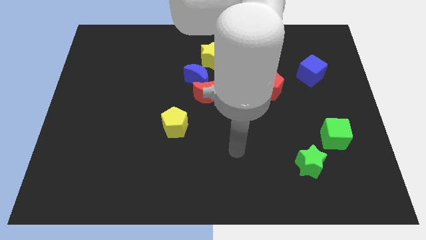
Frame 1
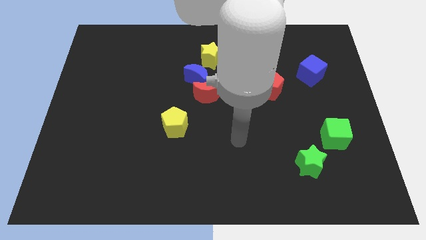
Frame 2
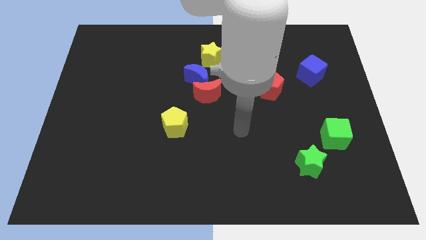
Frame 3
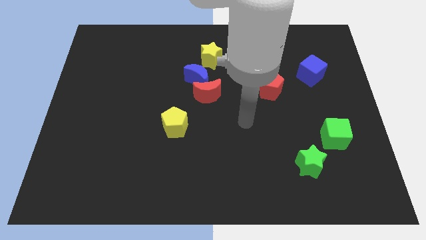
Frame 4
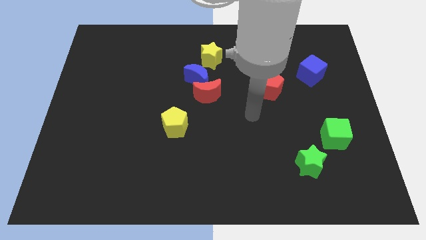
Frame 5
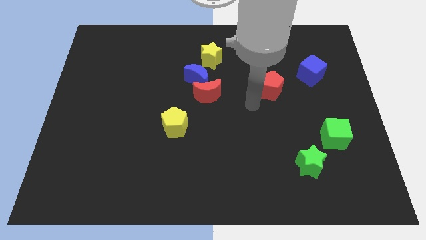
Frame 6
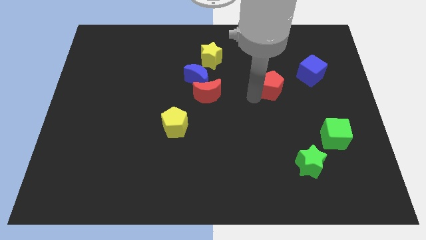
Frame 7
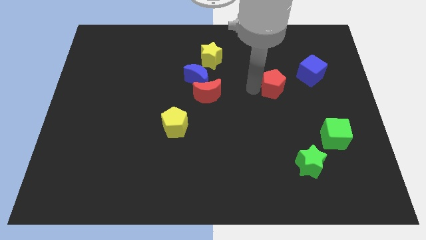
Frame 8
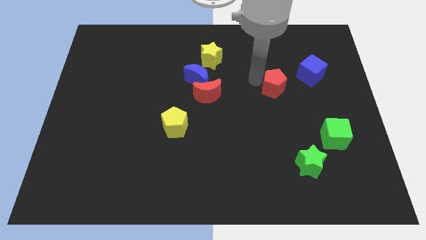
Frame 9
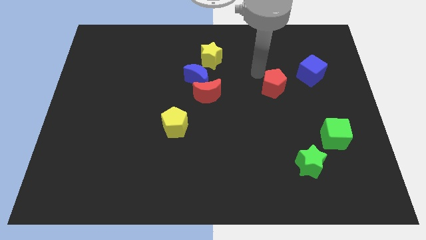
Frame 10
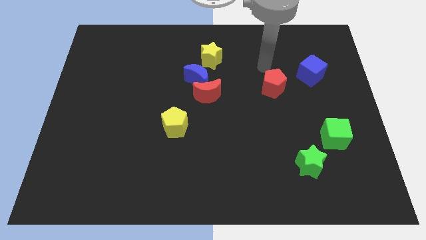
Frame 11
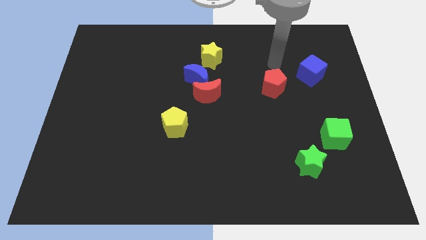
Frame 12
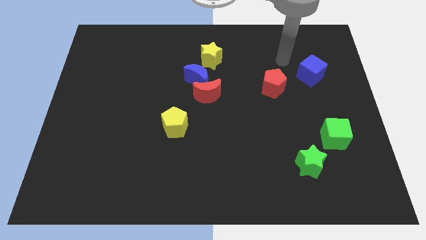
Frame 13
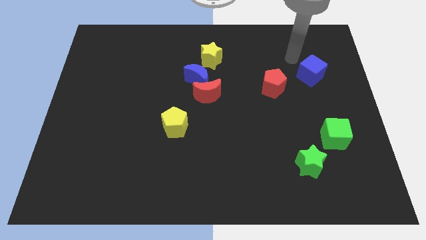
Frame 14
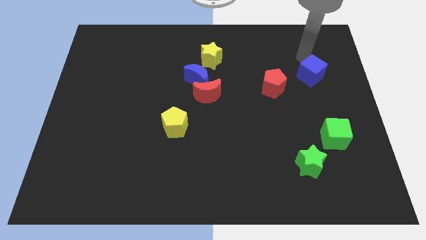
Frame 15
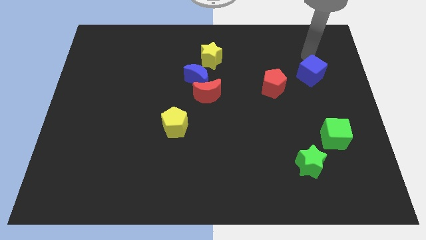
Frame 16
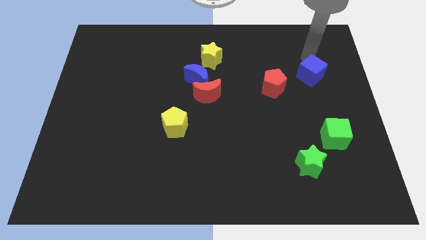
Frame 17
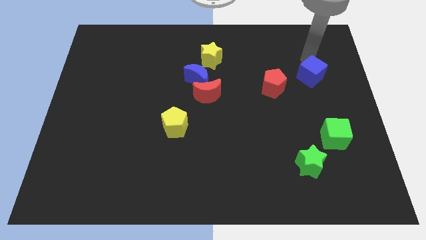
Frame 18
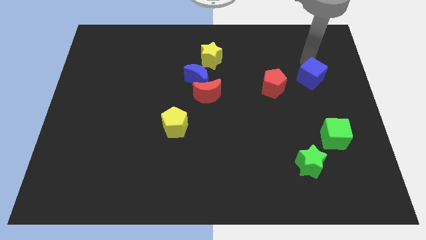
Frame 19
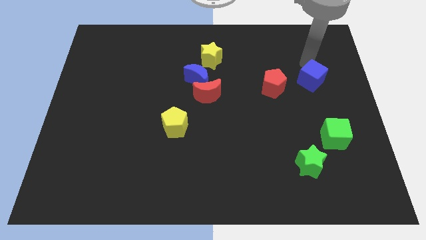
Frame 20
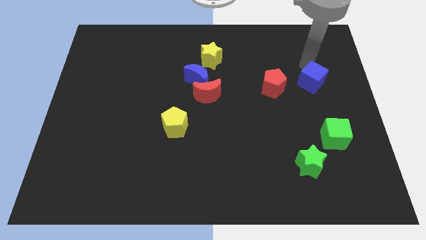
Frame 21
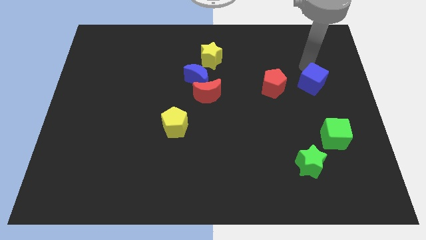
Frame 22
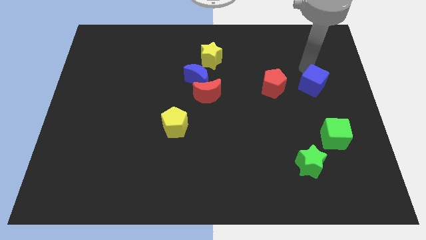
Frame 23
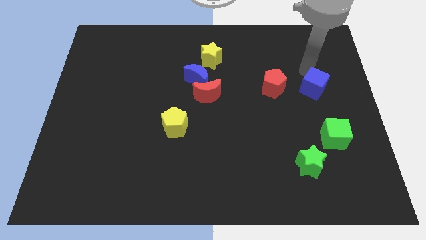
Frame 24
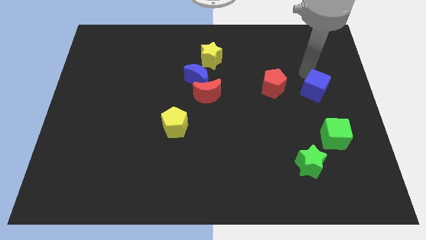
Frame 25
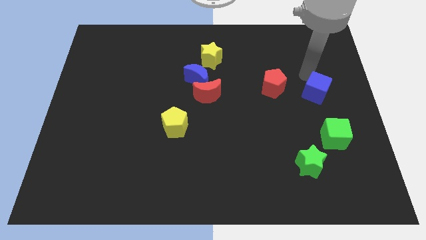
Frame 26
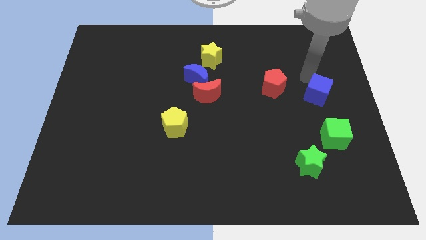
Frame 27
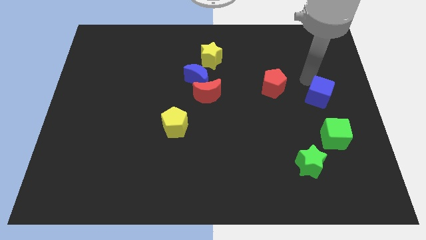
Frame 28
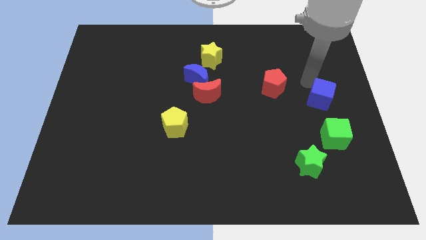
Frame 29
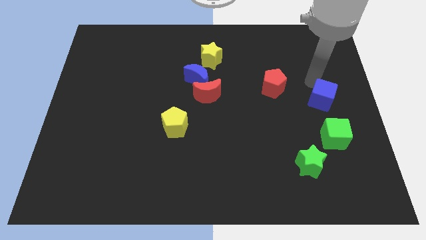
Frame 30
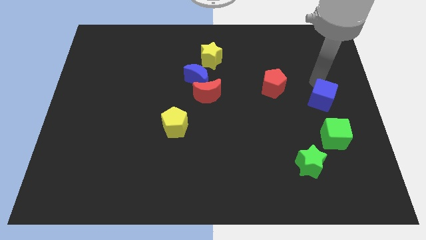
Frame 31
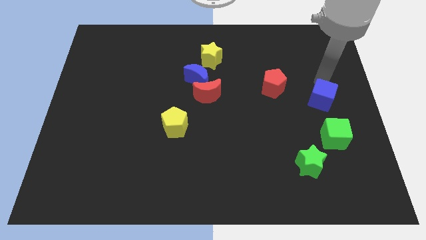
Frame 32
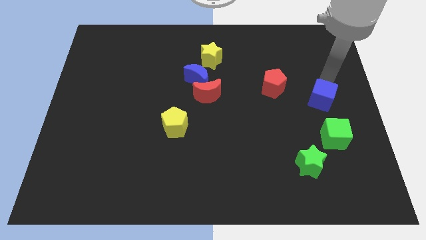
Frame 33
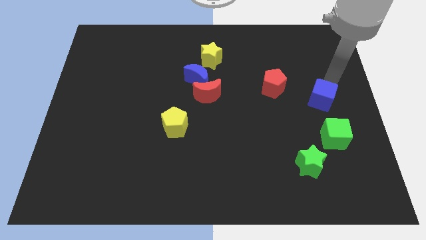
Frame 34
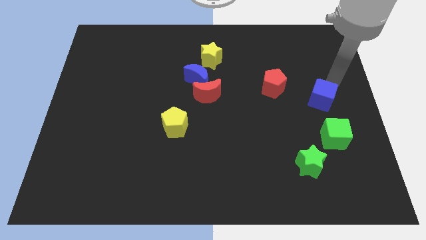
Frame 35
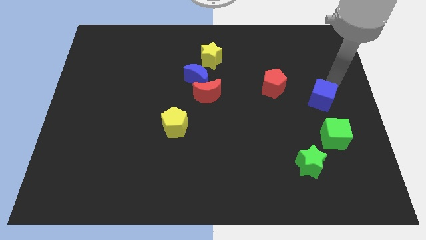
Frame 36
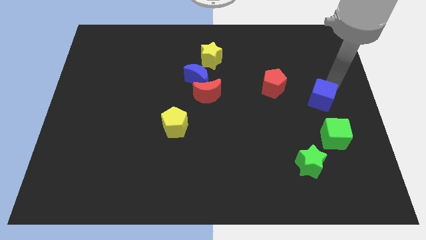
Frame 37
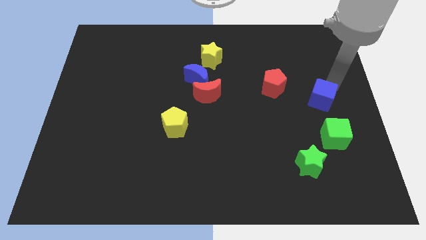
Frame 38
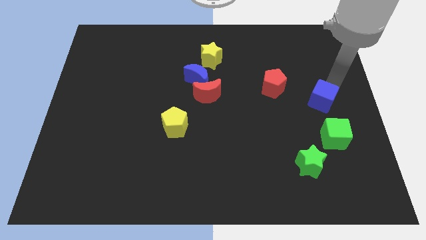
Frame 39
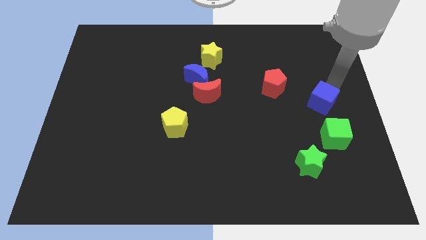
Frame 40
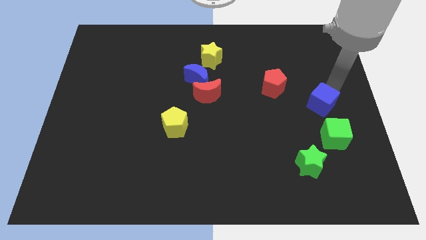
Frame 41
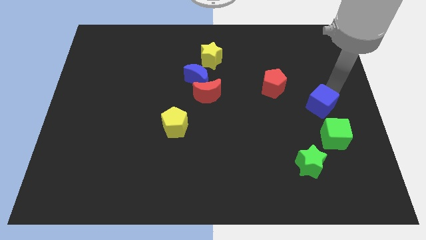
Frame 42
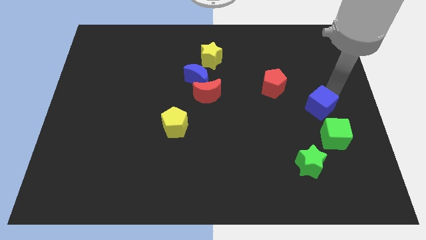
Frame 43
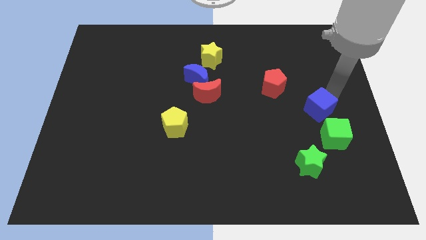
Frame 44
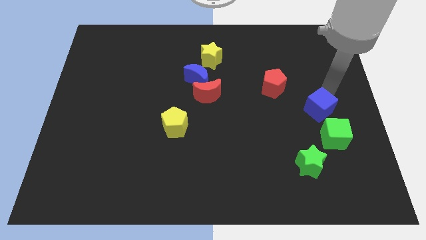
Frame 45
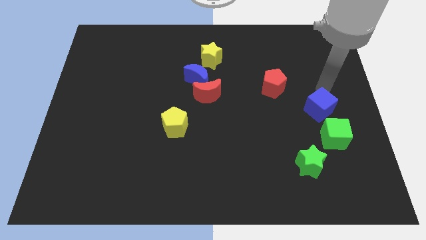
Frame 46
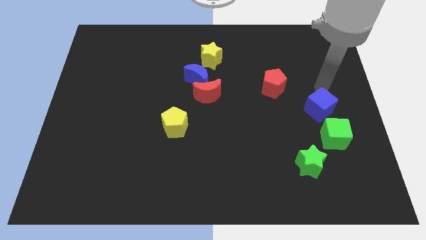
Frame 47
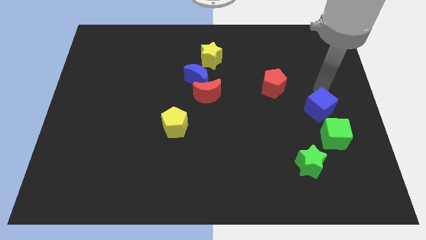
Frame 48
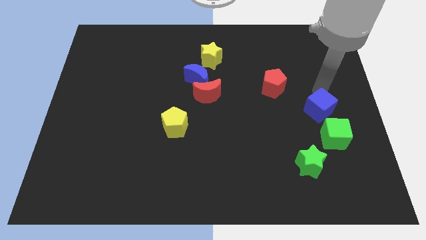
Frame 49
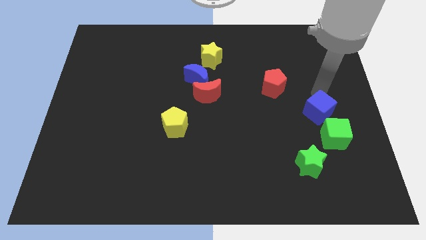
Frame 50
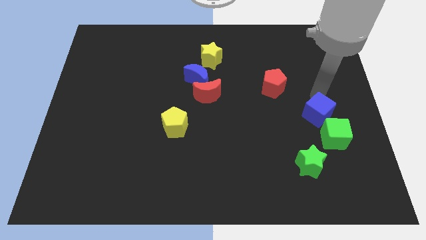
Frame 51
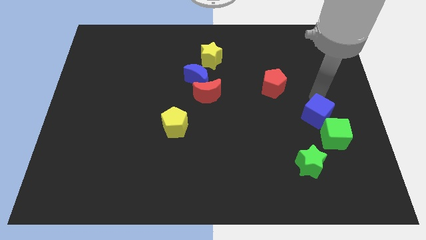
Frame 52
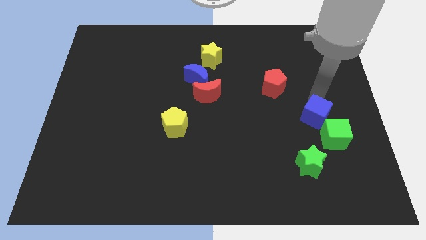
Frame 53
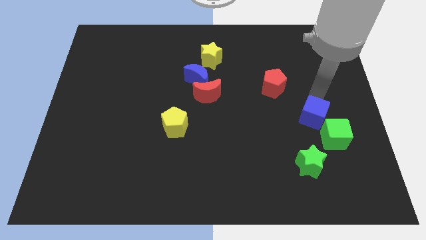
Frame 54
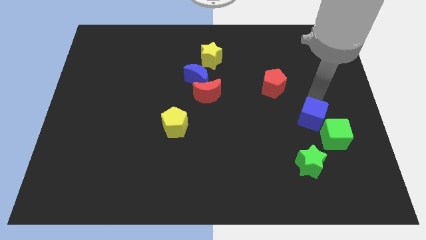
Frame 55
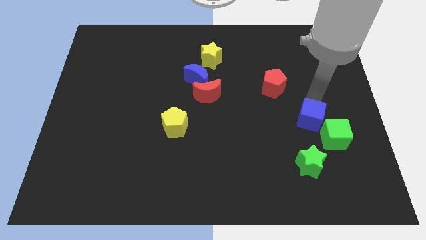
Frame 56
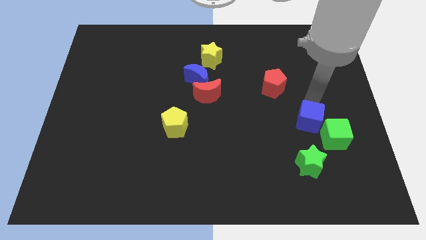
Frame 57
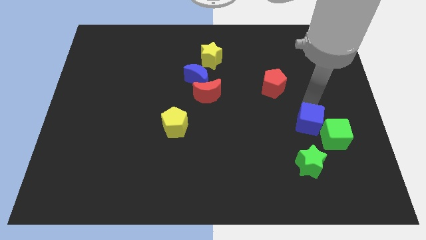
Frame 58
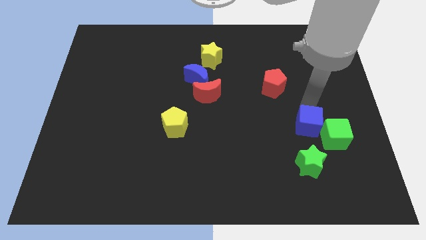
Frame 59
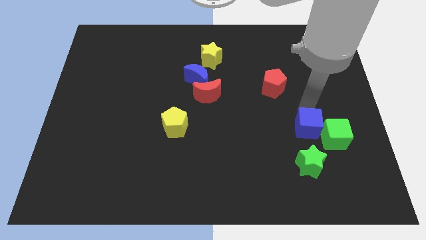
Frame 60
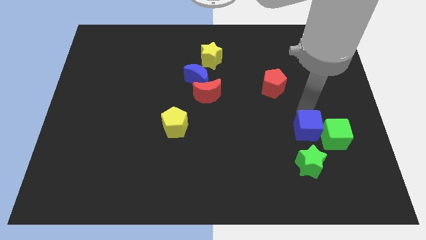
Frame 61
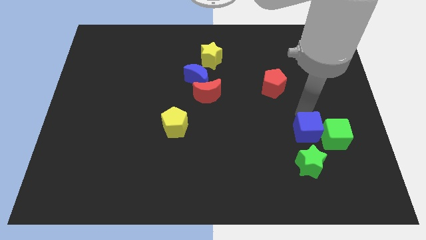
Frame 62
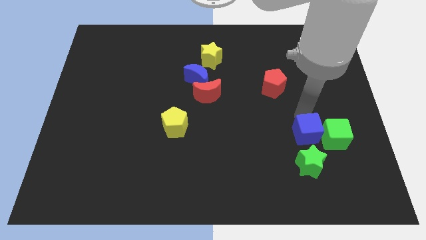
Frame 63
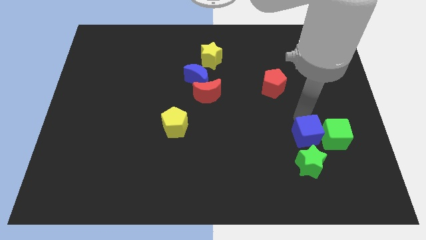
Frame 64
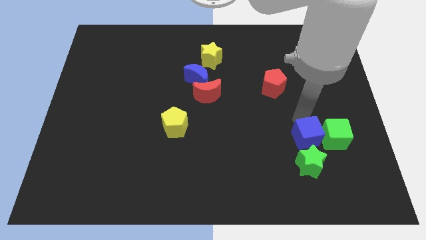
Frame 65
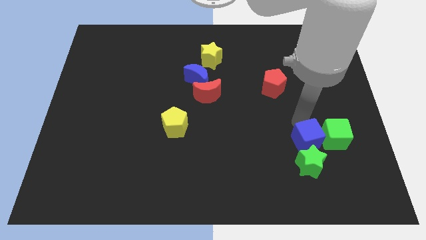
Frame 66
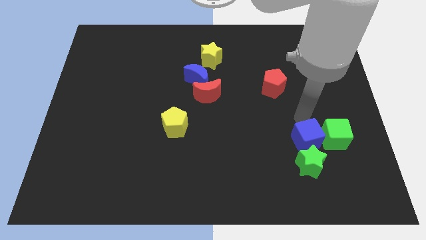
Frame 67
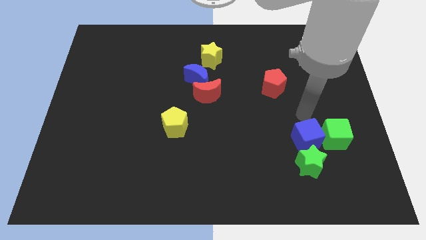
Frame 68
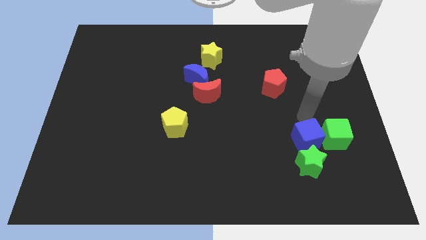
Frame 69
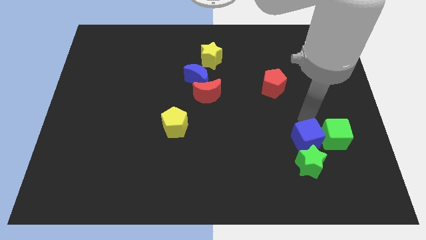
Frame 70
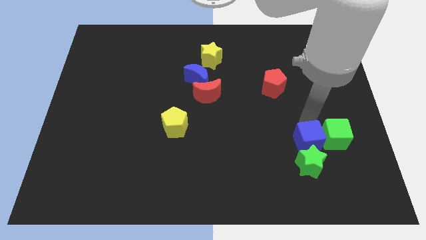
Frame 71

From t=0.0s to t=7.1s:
move the blue cube next to the green star
